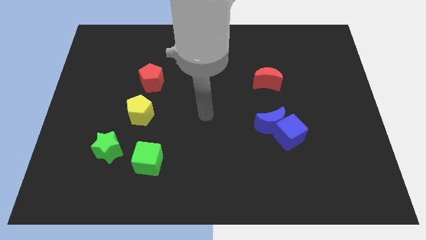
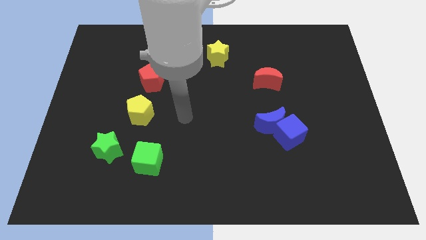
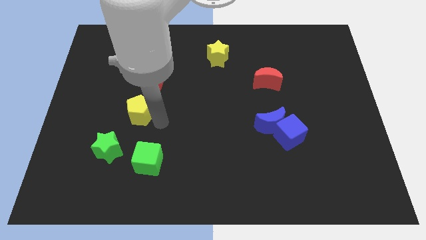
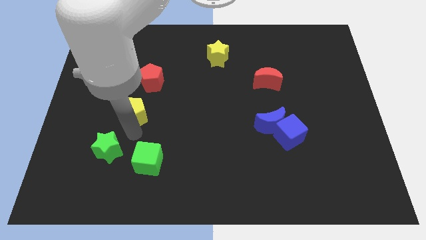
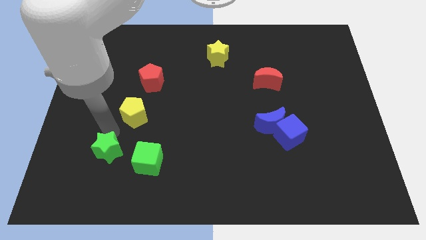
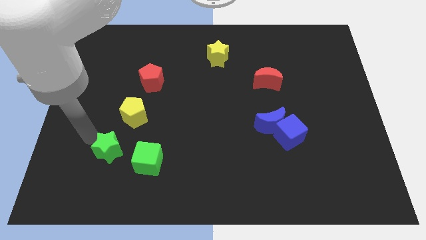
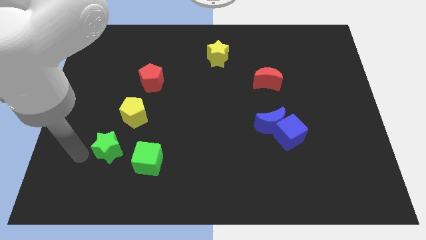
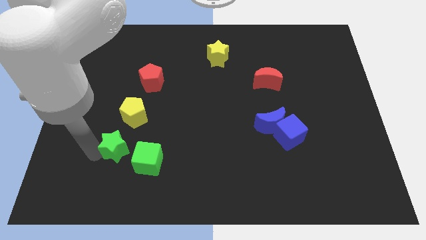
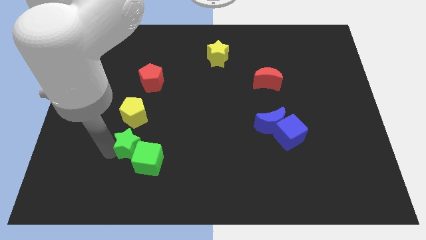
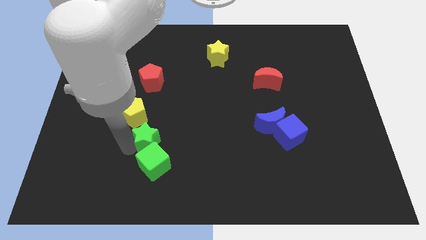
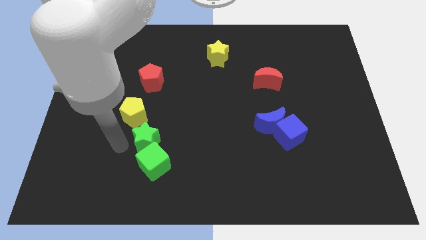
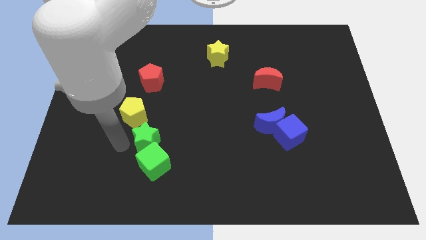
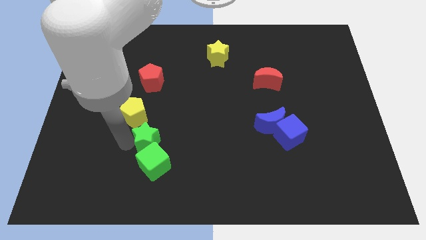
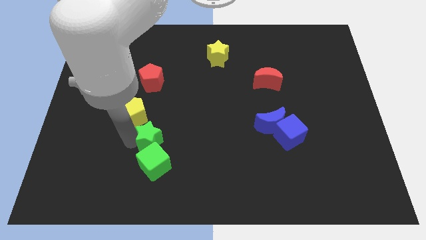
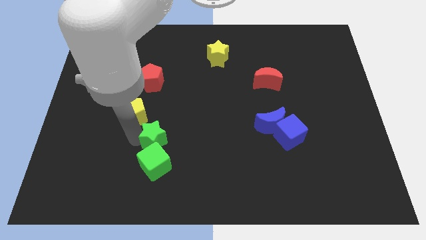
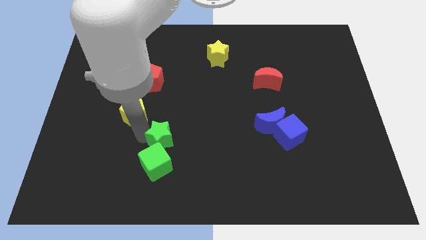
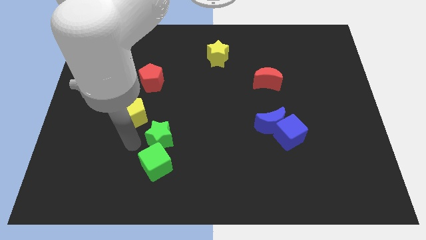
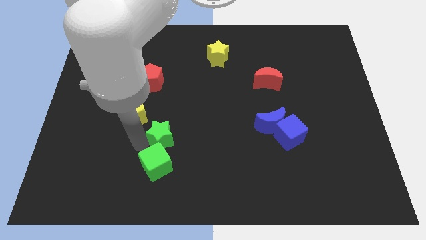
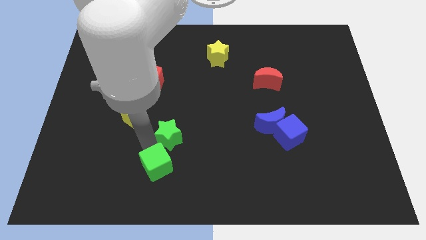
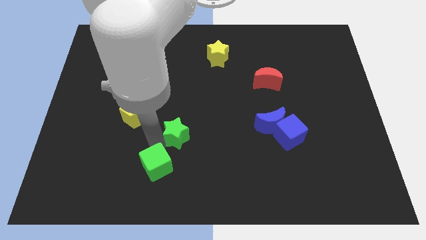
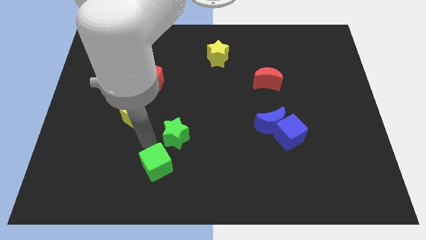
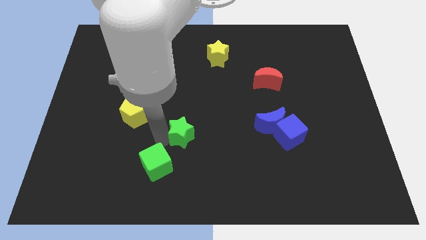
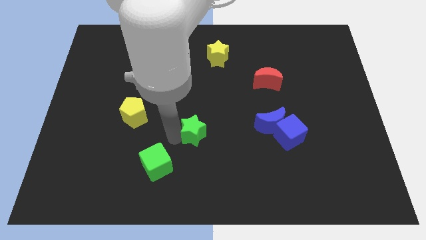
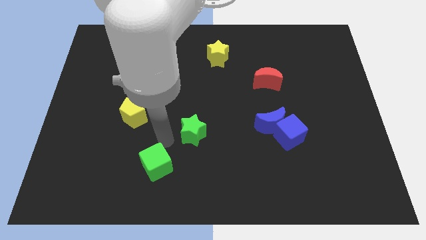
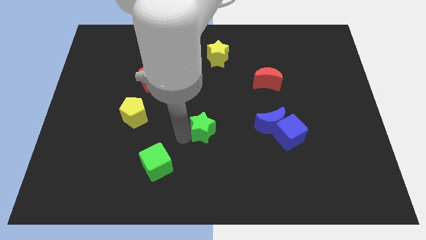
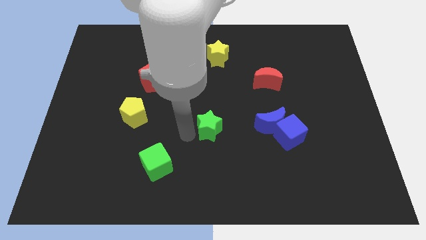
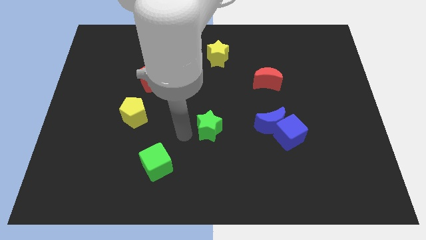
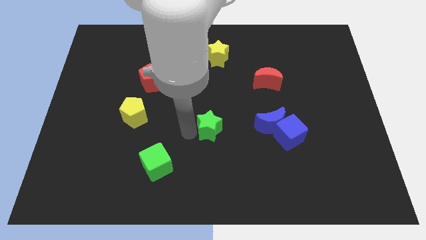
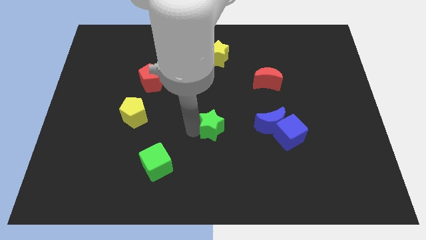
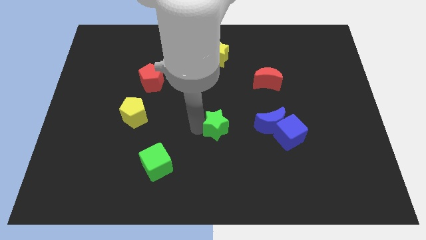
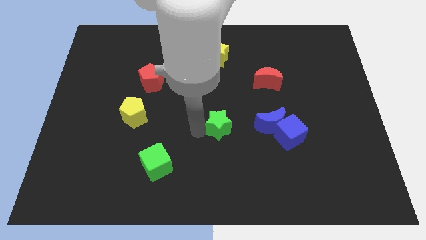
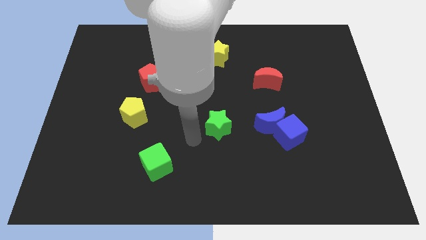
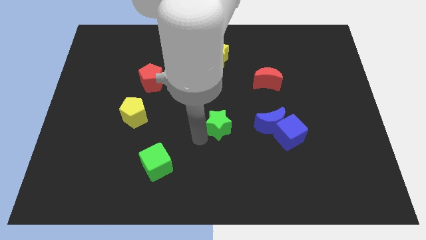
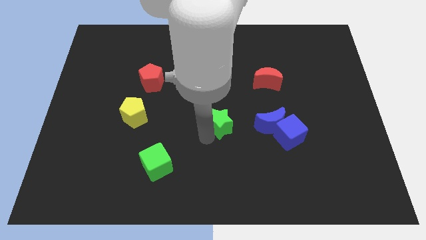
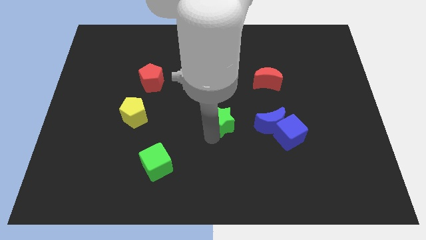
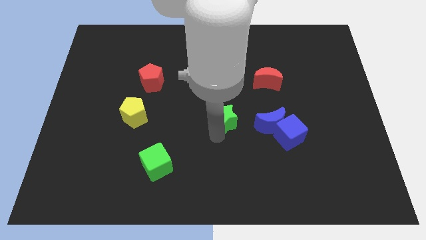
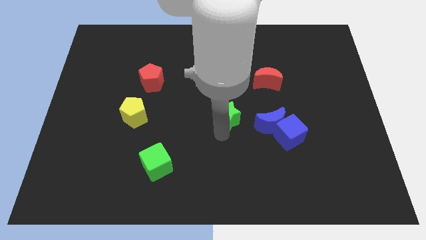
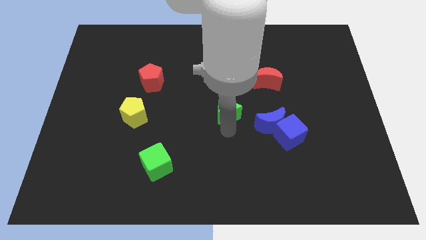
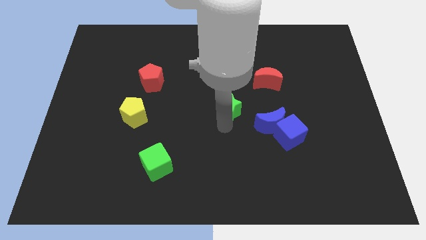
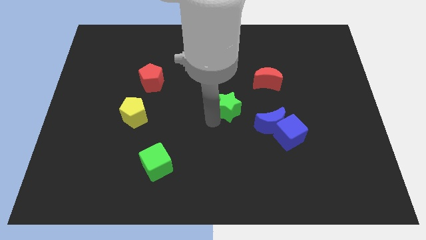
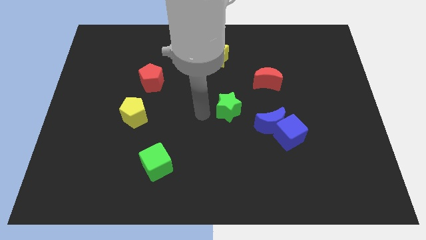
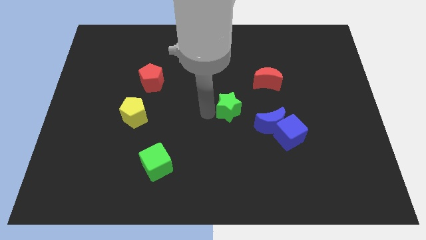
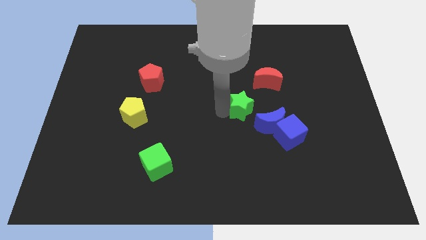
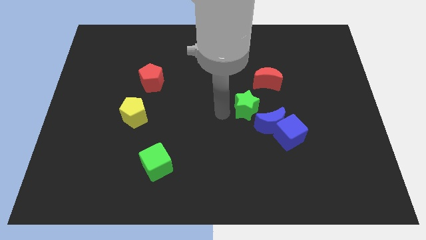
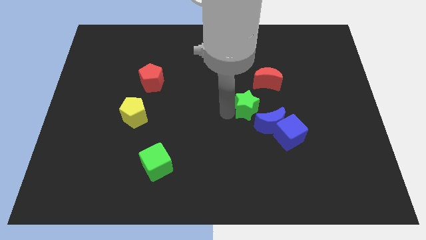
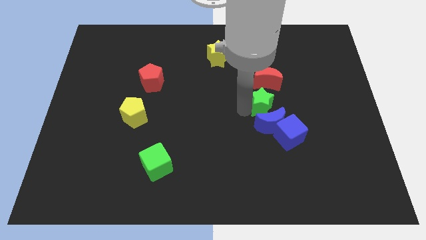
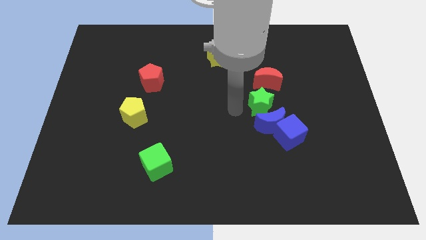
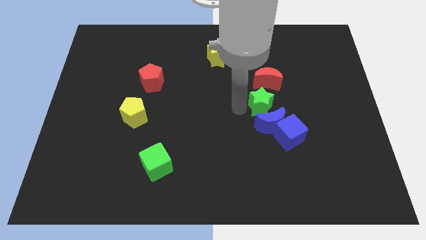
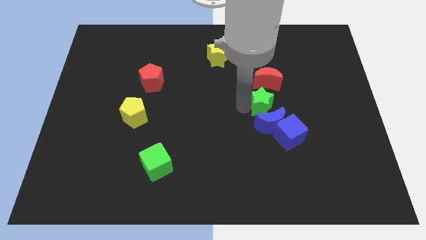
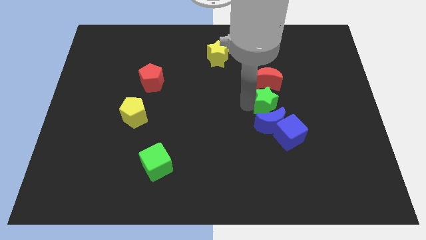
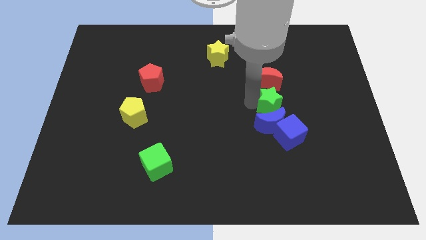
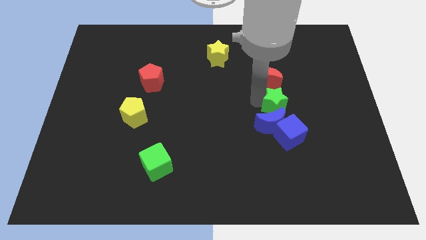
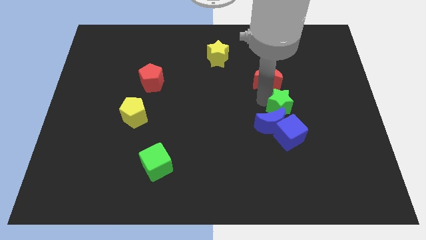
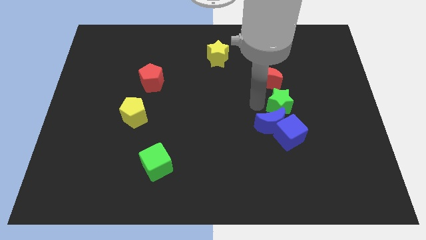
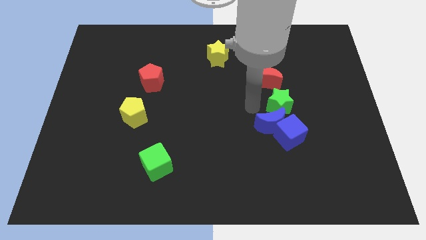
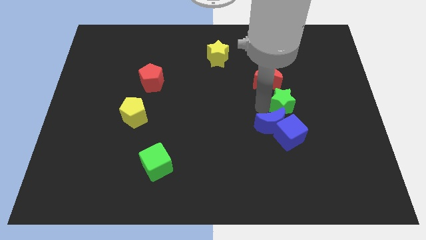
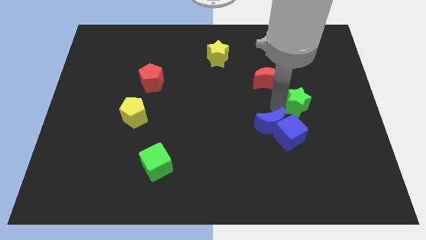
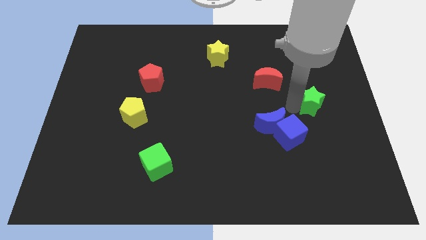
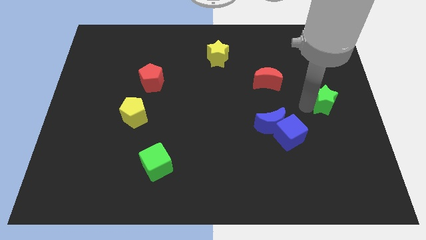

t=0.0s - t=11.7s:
put the green star to the center right
